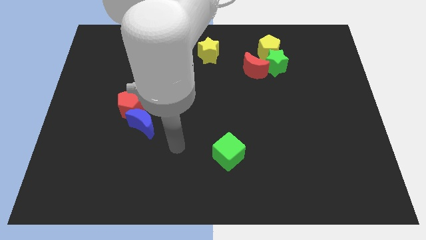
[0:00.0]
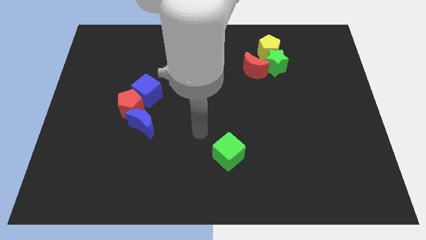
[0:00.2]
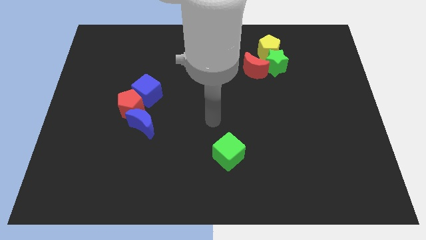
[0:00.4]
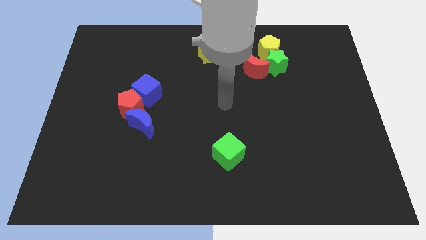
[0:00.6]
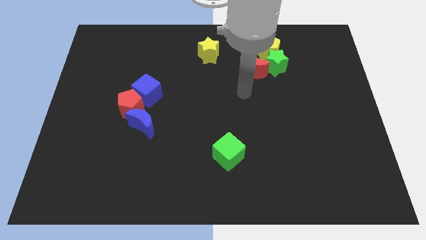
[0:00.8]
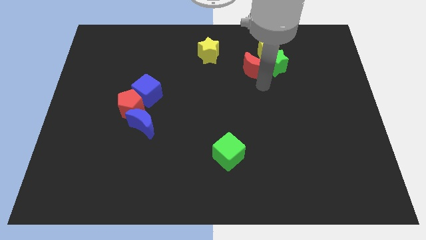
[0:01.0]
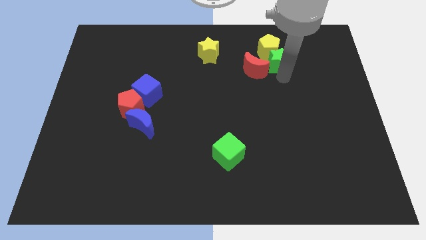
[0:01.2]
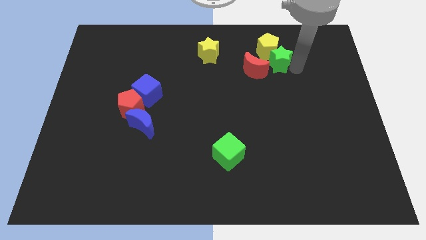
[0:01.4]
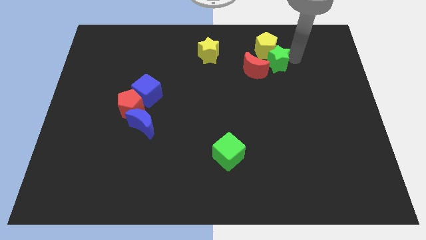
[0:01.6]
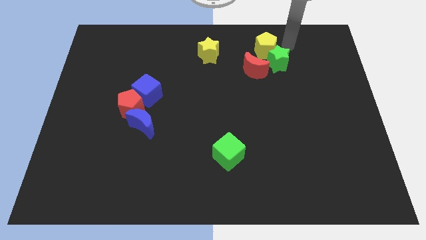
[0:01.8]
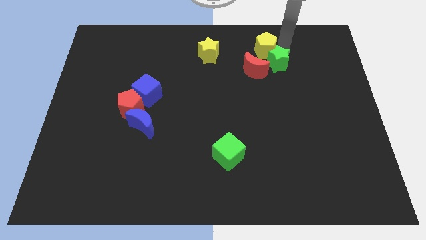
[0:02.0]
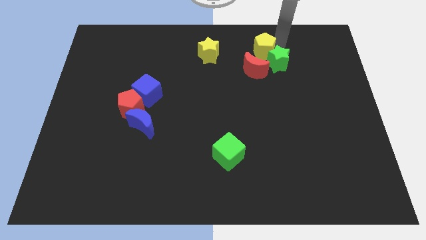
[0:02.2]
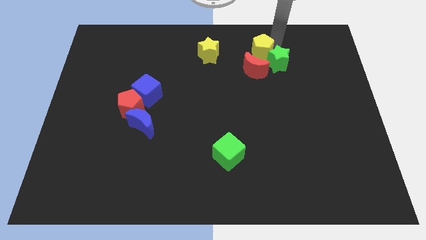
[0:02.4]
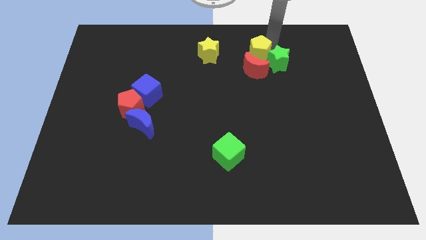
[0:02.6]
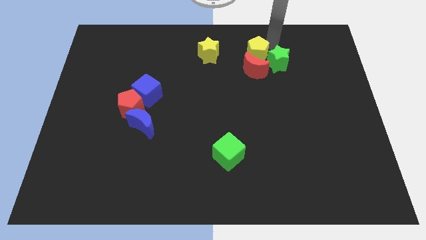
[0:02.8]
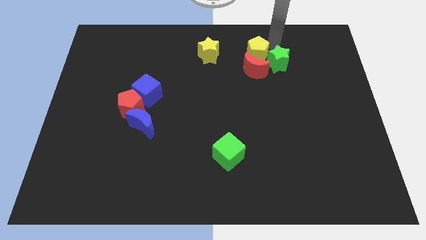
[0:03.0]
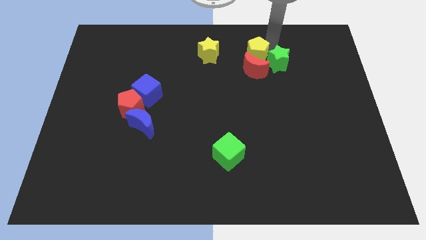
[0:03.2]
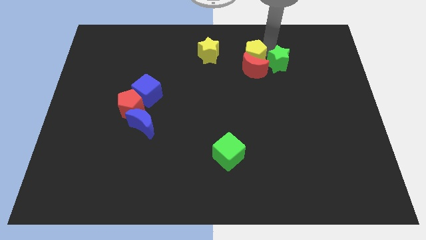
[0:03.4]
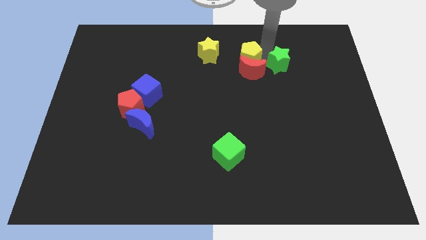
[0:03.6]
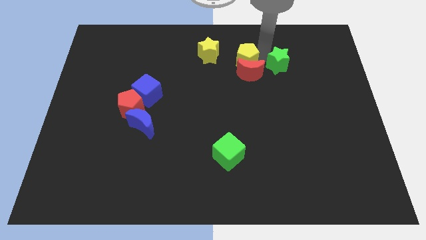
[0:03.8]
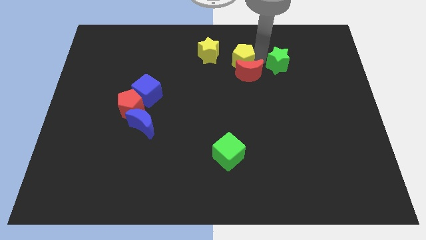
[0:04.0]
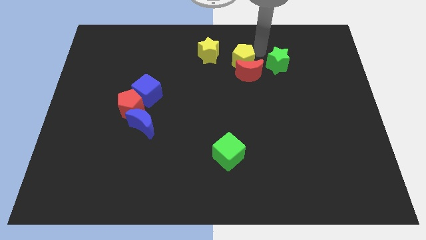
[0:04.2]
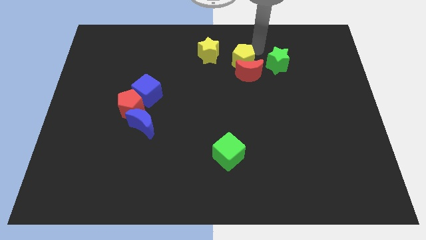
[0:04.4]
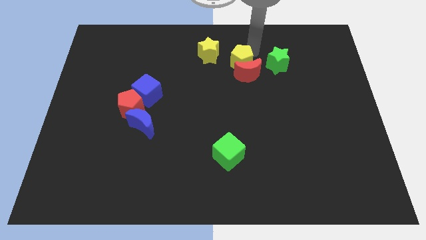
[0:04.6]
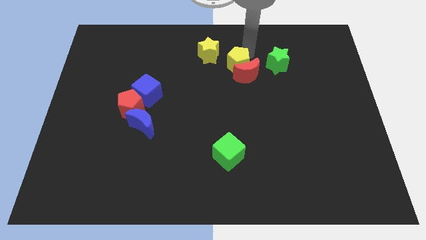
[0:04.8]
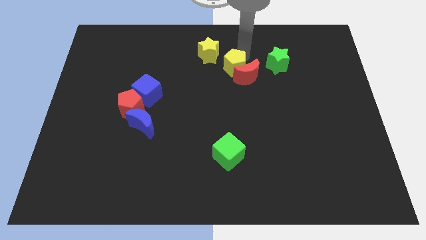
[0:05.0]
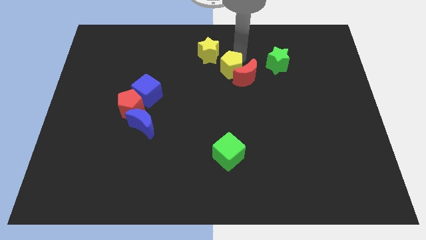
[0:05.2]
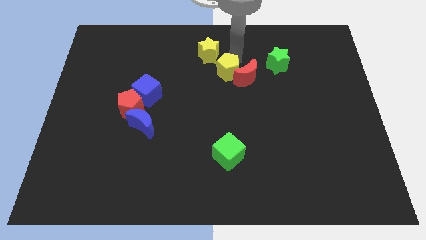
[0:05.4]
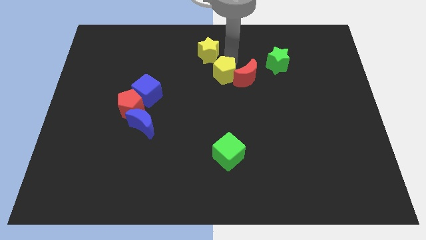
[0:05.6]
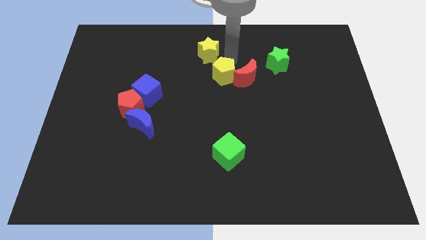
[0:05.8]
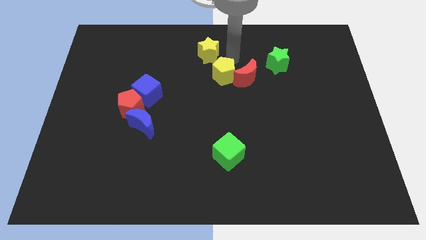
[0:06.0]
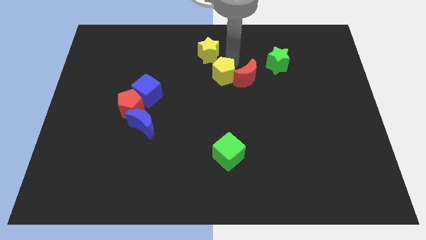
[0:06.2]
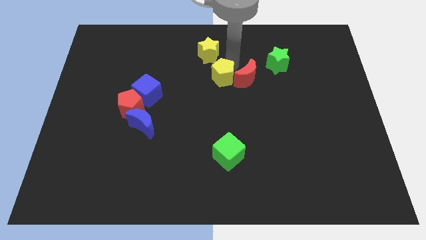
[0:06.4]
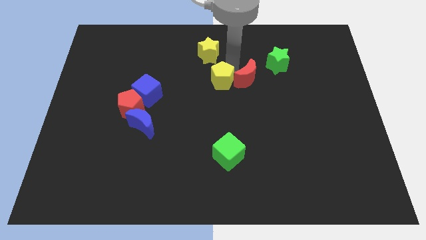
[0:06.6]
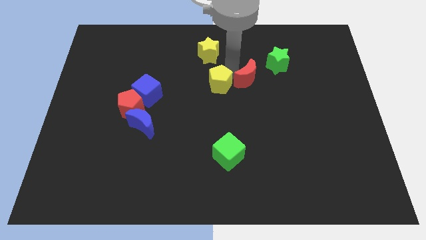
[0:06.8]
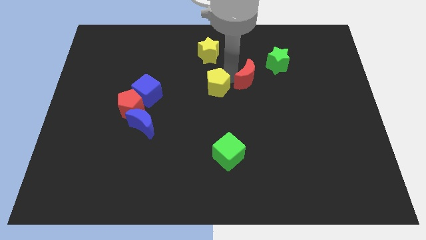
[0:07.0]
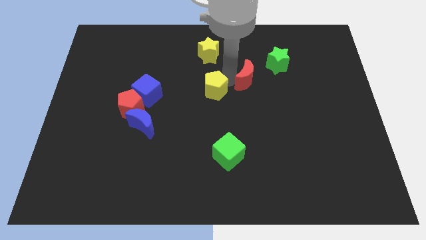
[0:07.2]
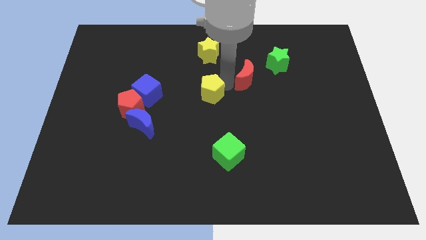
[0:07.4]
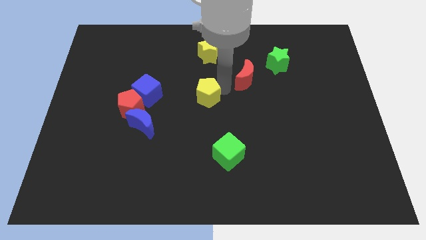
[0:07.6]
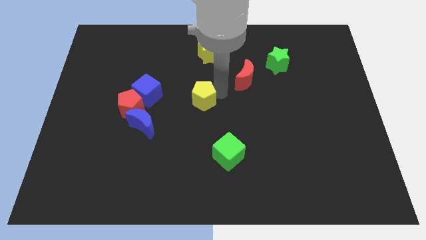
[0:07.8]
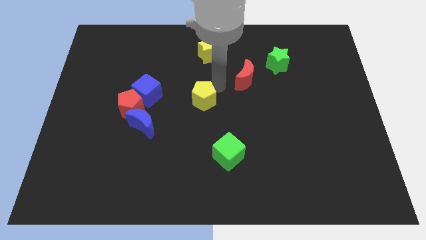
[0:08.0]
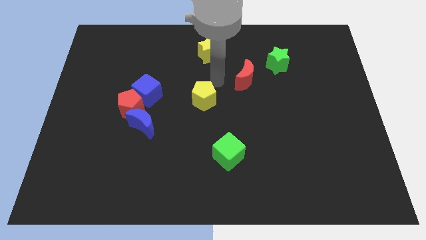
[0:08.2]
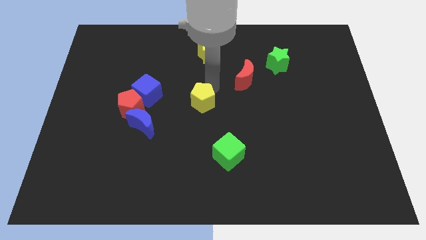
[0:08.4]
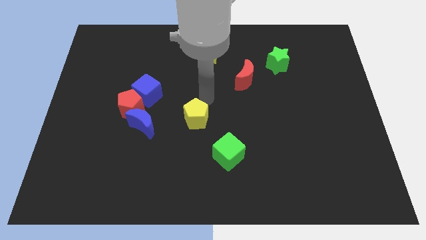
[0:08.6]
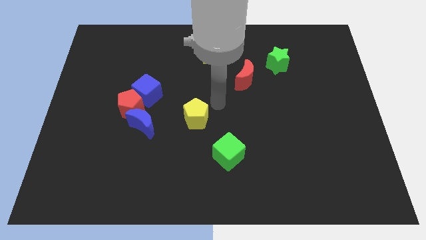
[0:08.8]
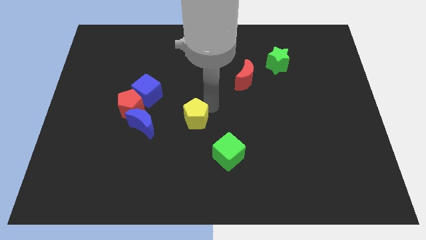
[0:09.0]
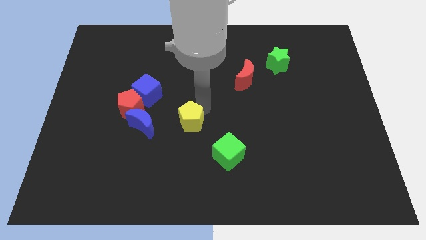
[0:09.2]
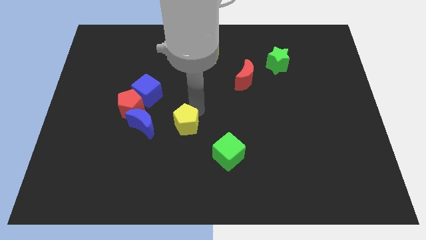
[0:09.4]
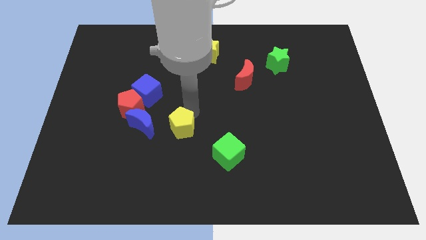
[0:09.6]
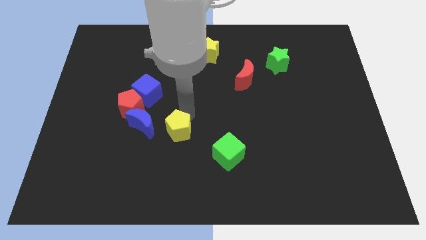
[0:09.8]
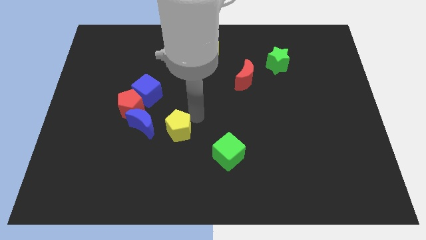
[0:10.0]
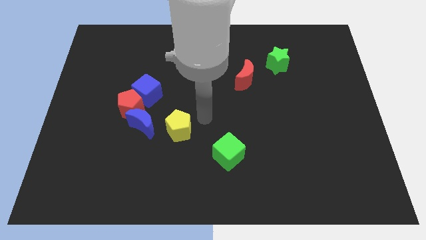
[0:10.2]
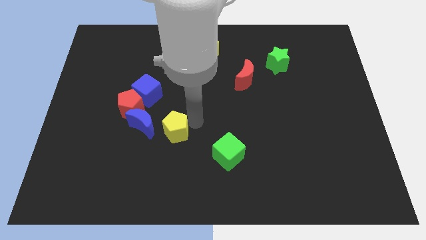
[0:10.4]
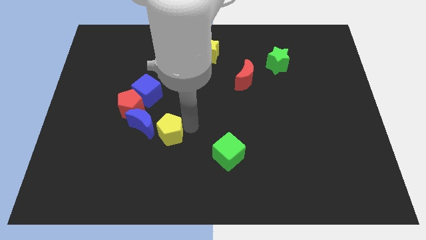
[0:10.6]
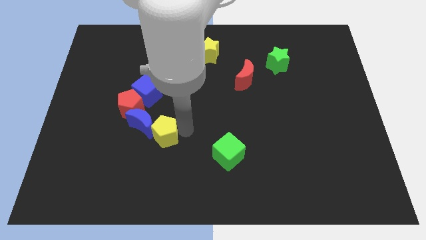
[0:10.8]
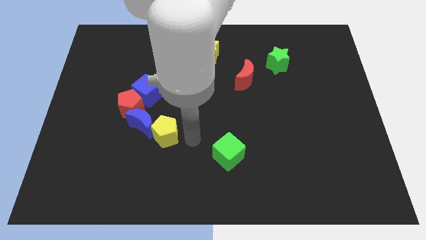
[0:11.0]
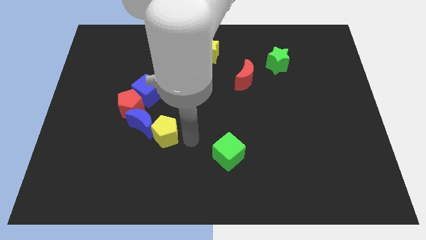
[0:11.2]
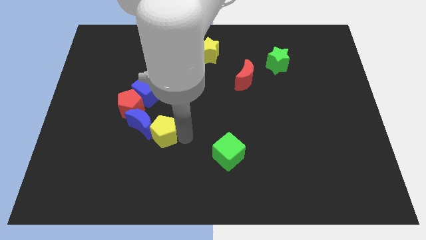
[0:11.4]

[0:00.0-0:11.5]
slide the yellow pentagon below the blue cube

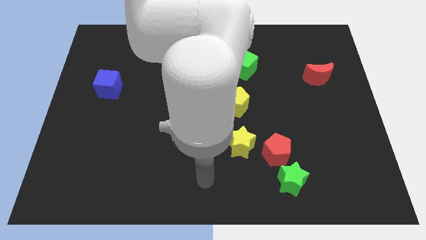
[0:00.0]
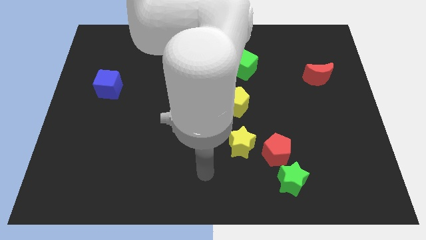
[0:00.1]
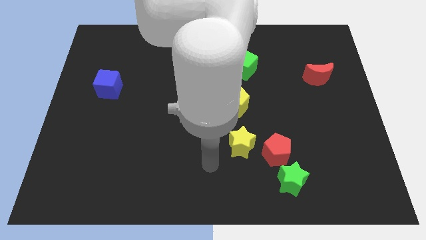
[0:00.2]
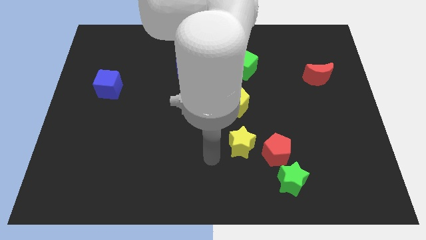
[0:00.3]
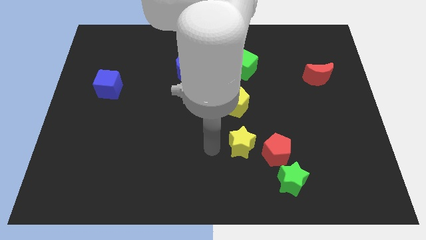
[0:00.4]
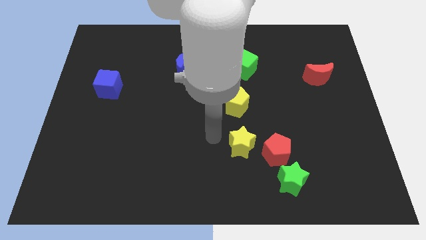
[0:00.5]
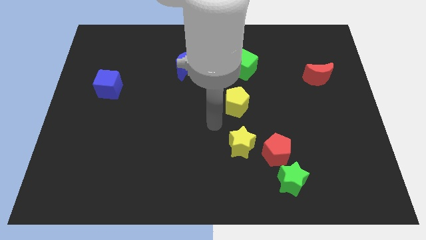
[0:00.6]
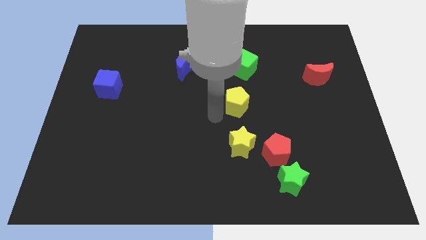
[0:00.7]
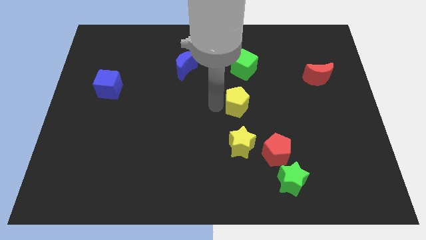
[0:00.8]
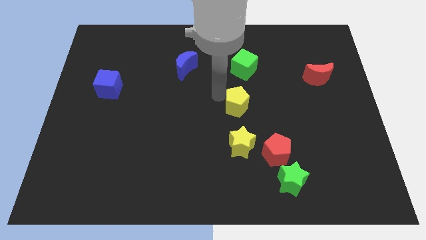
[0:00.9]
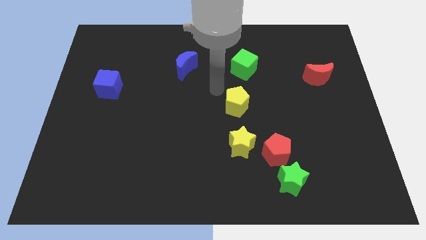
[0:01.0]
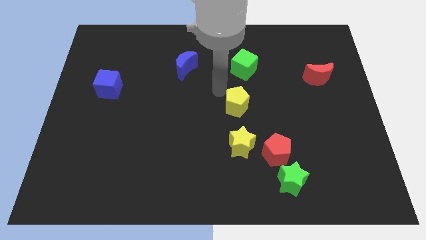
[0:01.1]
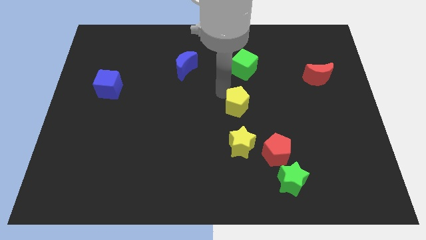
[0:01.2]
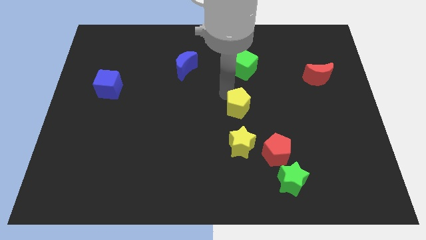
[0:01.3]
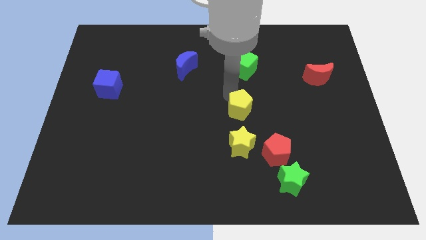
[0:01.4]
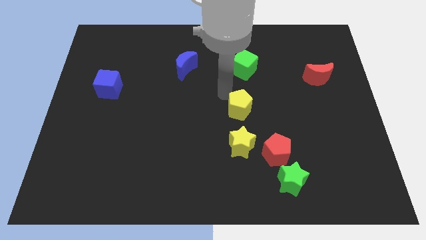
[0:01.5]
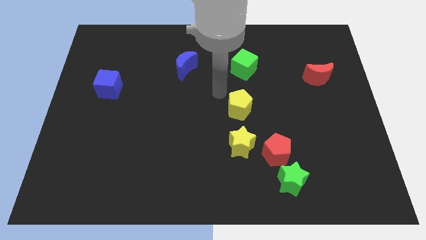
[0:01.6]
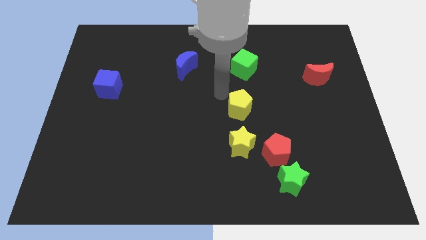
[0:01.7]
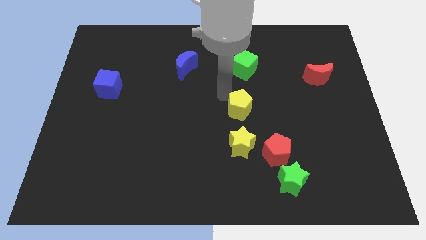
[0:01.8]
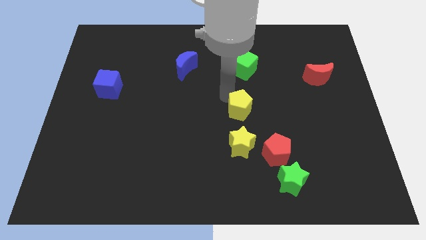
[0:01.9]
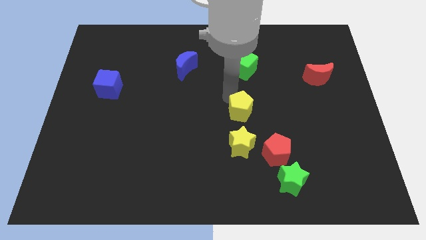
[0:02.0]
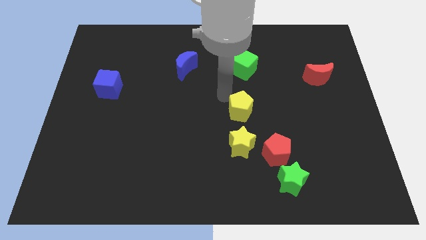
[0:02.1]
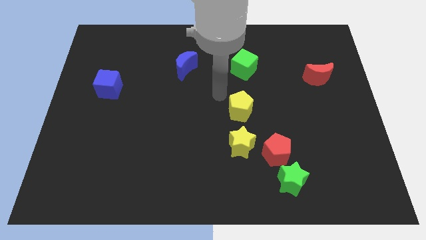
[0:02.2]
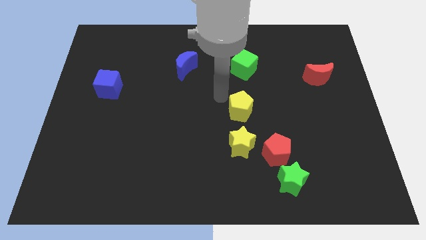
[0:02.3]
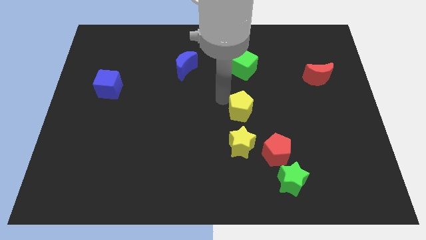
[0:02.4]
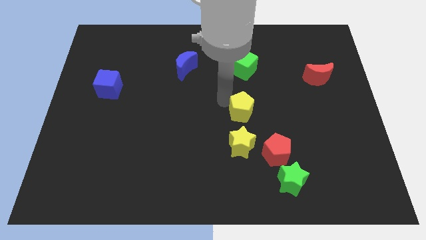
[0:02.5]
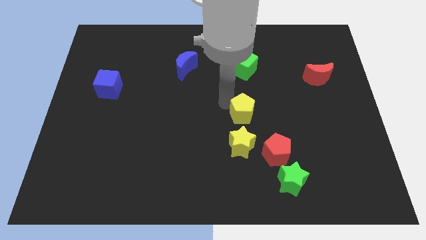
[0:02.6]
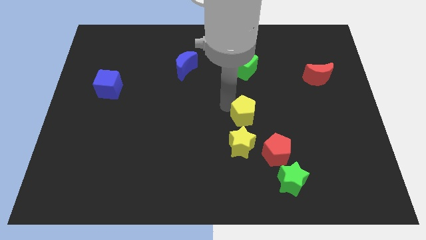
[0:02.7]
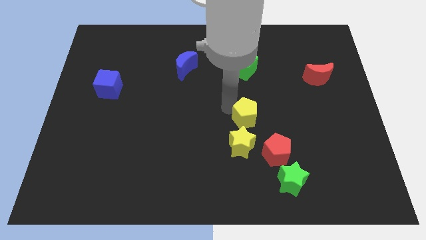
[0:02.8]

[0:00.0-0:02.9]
slide the yellow pentagon to the top right of the yellow star
